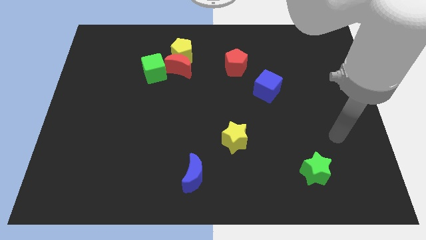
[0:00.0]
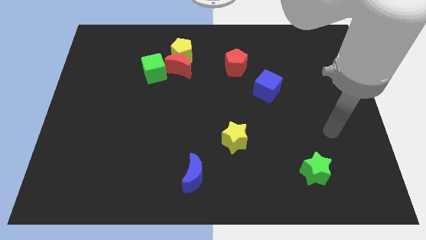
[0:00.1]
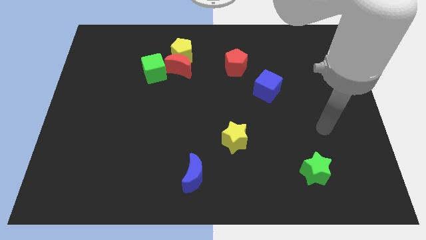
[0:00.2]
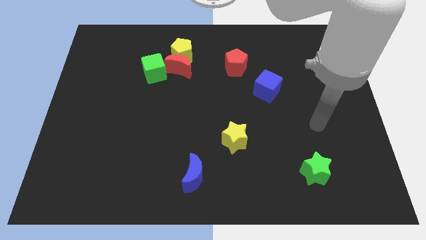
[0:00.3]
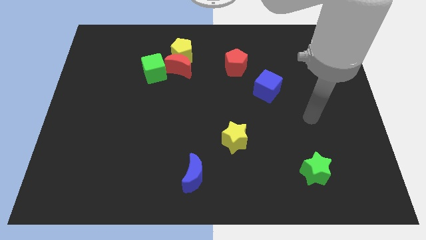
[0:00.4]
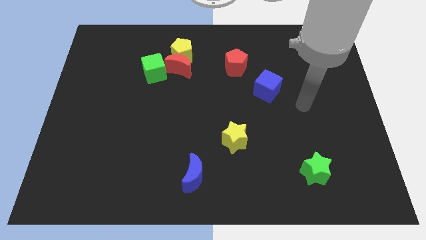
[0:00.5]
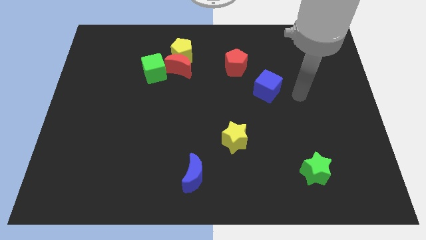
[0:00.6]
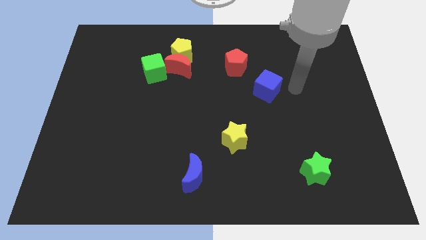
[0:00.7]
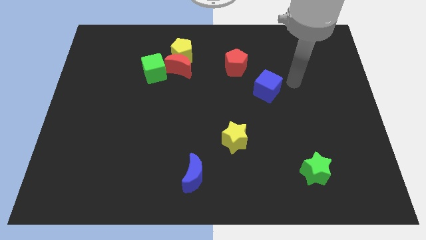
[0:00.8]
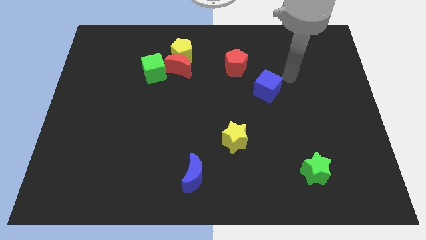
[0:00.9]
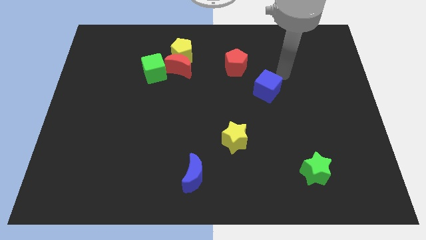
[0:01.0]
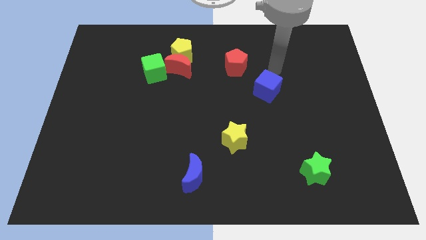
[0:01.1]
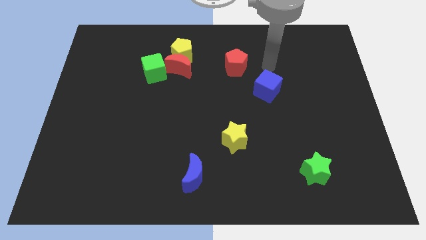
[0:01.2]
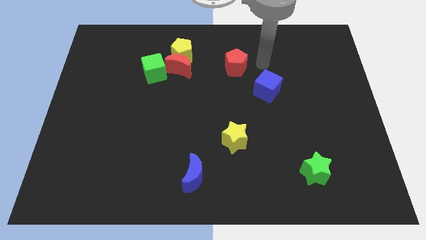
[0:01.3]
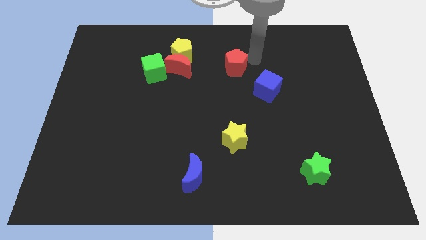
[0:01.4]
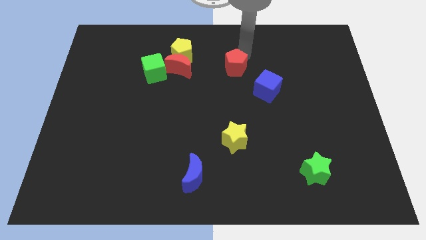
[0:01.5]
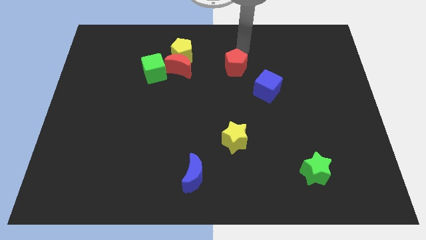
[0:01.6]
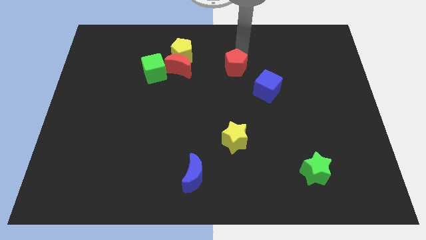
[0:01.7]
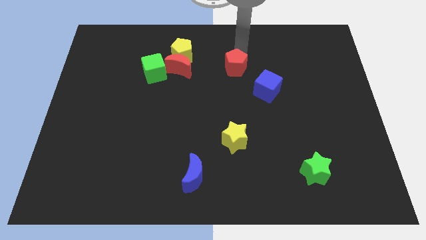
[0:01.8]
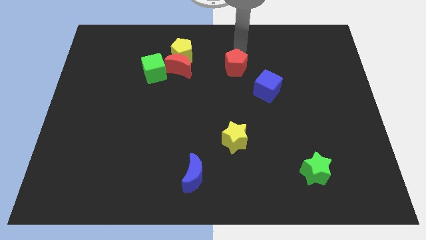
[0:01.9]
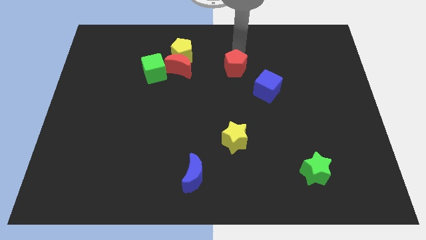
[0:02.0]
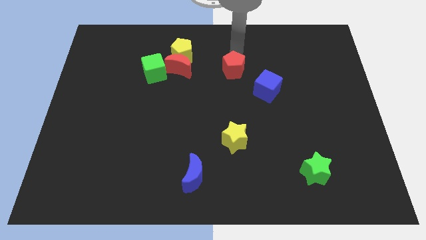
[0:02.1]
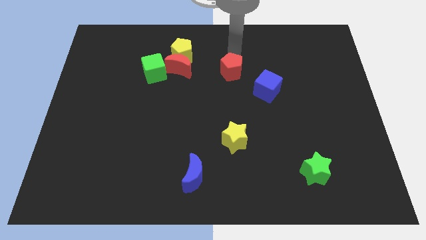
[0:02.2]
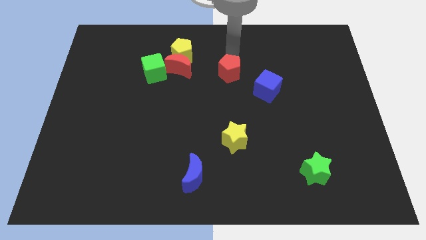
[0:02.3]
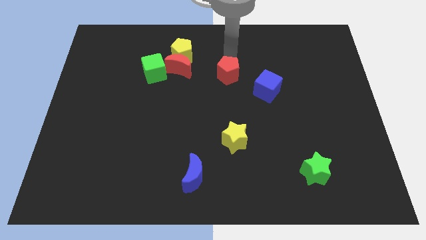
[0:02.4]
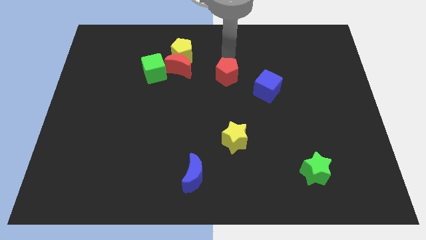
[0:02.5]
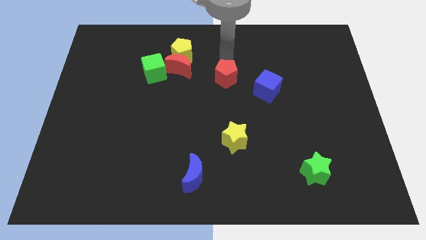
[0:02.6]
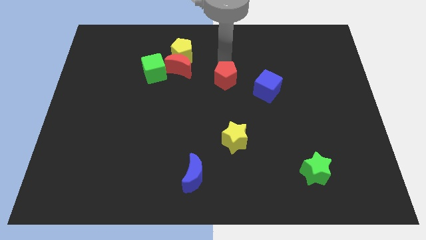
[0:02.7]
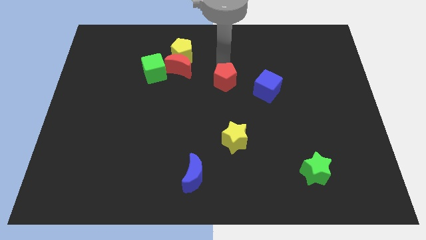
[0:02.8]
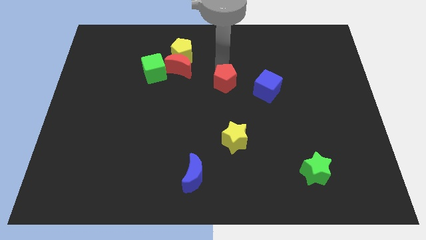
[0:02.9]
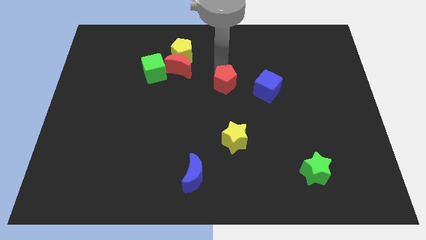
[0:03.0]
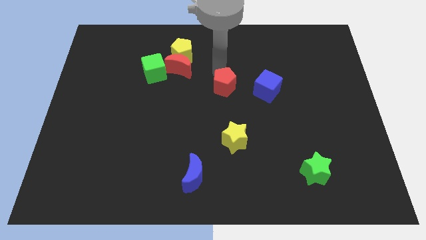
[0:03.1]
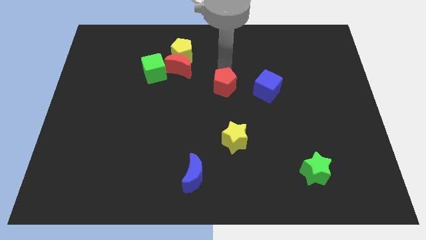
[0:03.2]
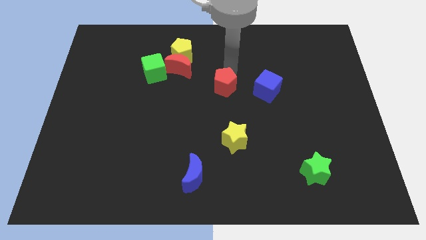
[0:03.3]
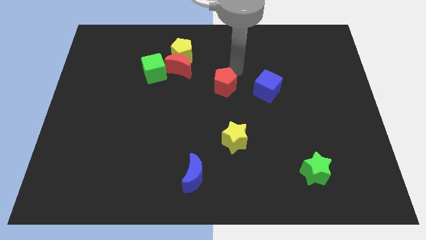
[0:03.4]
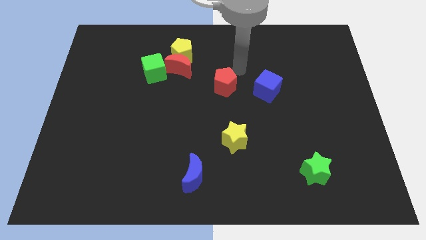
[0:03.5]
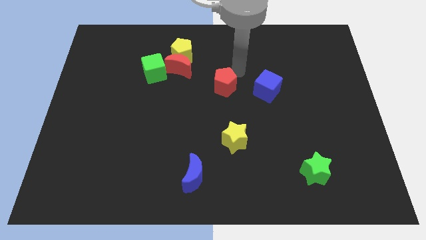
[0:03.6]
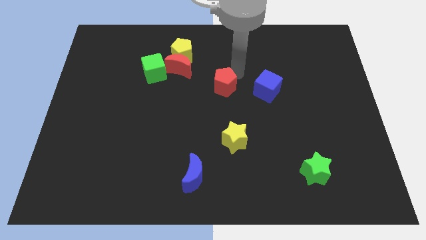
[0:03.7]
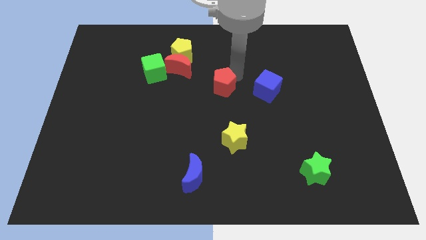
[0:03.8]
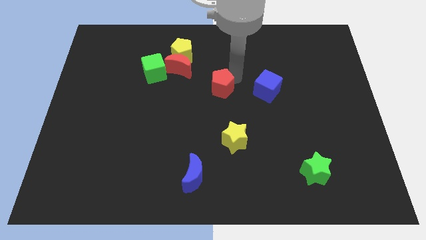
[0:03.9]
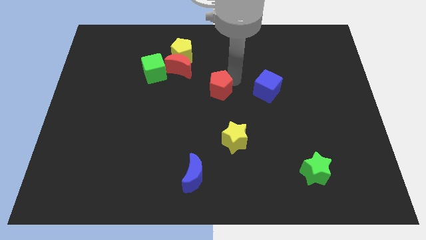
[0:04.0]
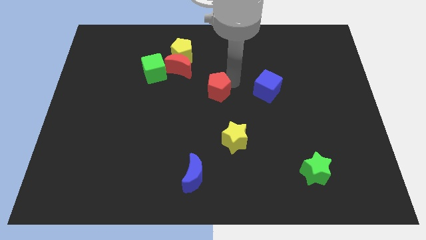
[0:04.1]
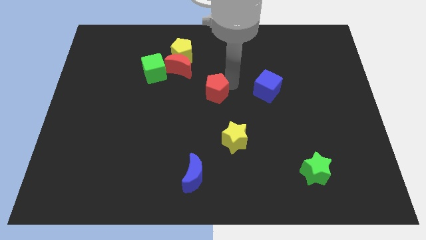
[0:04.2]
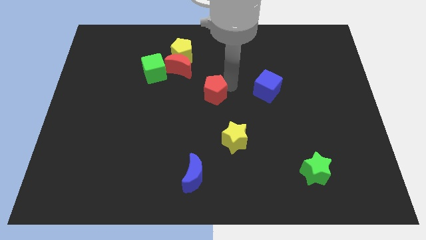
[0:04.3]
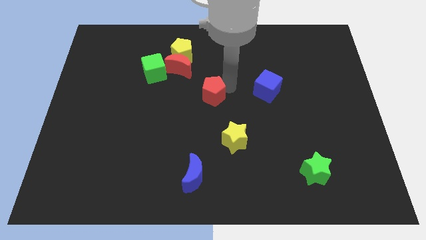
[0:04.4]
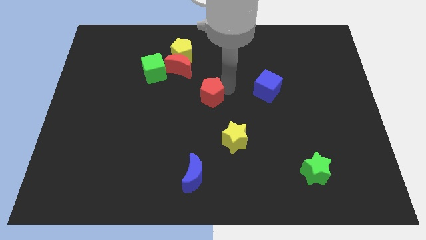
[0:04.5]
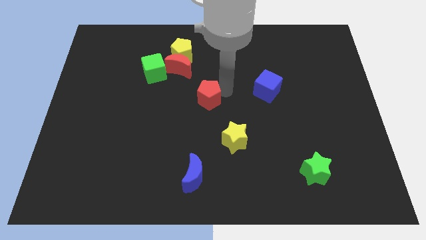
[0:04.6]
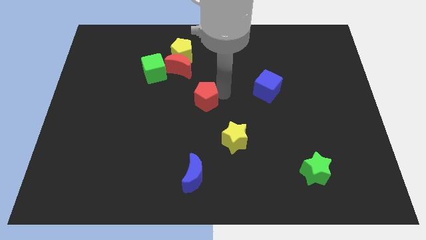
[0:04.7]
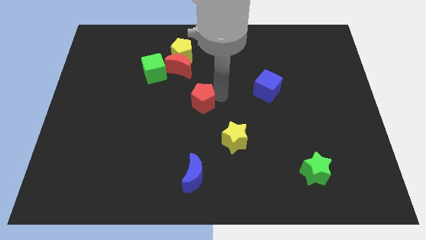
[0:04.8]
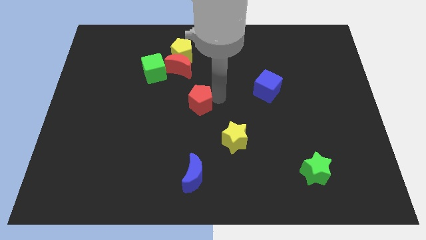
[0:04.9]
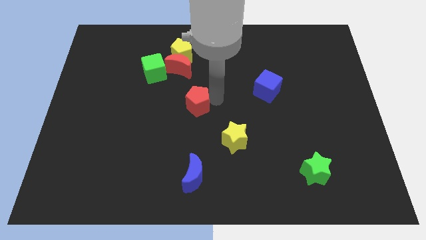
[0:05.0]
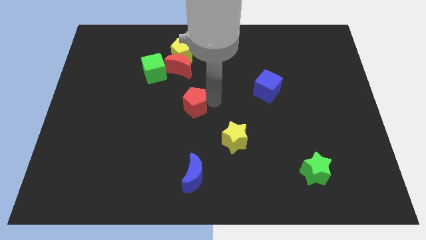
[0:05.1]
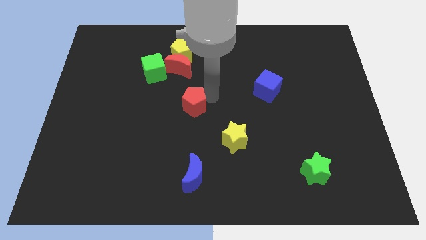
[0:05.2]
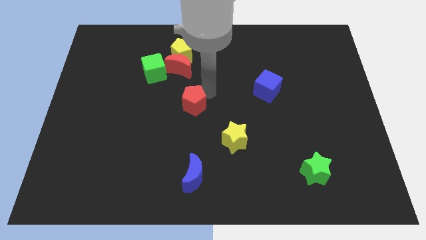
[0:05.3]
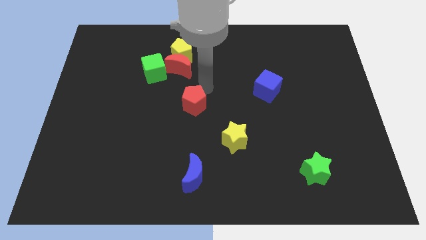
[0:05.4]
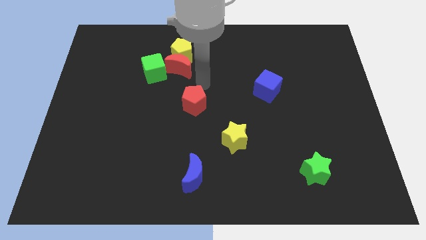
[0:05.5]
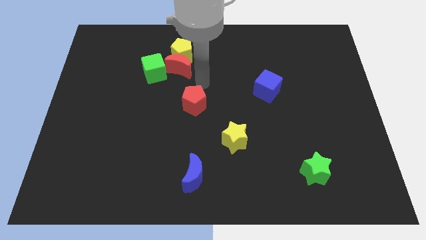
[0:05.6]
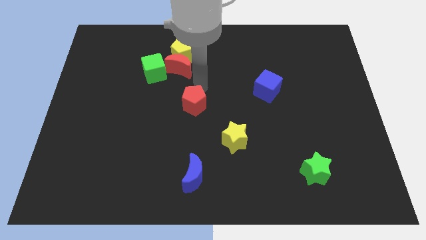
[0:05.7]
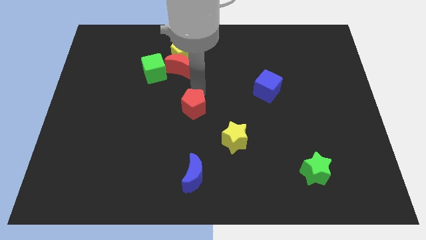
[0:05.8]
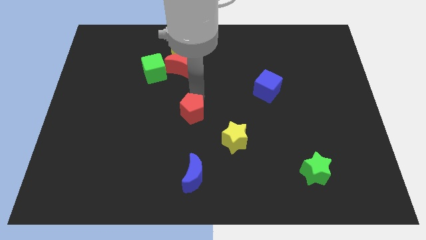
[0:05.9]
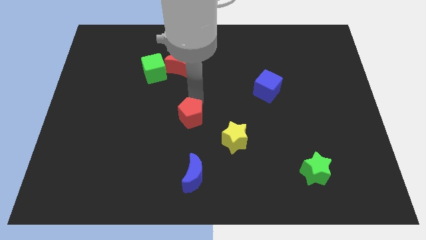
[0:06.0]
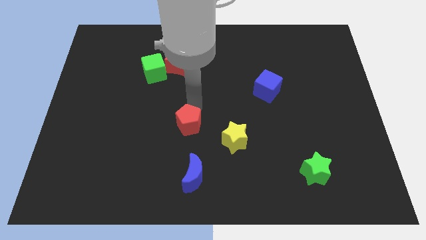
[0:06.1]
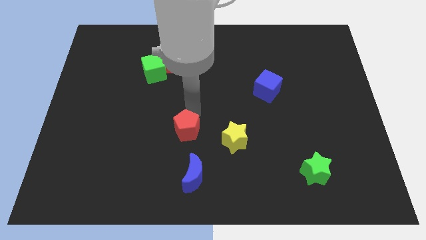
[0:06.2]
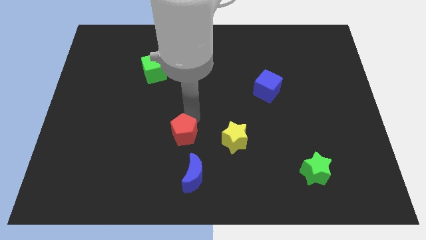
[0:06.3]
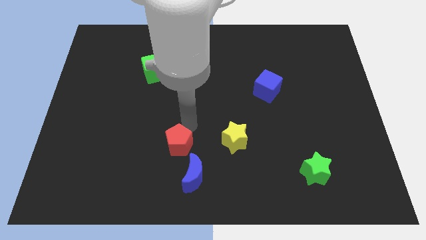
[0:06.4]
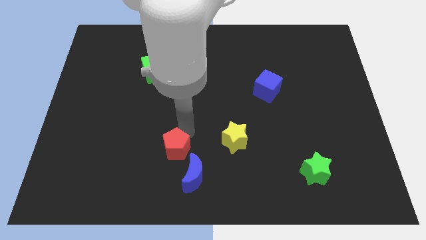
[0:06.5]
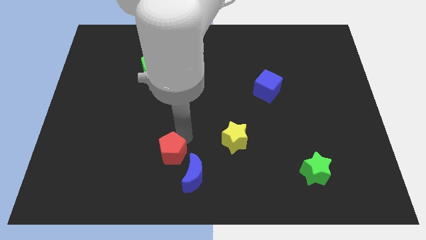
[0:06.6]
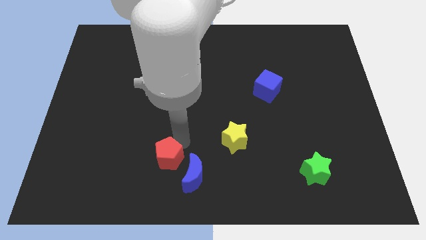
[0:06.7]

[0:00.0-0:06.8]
move the red pentagon left of the blue moon
